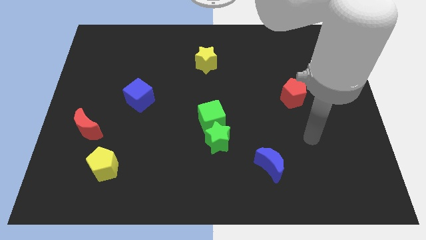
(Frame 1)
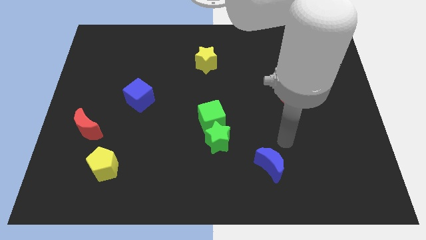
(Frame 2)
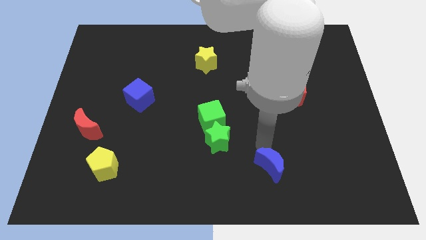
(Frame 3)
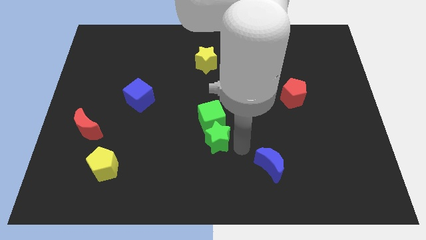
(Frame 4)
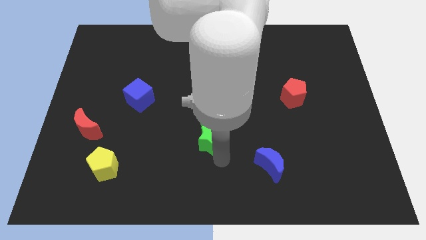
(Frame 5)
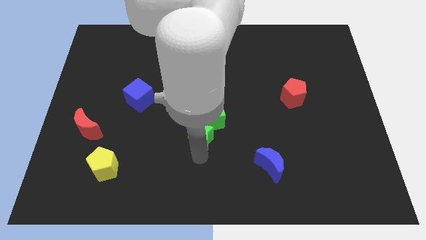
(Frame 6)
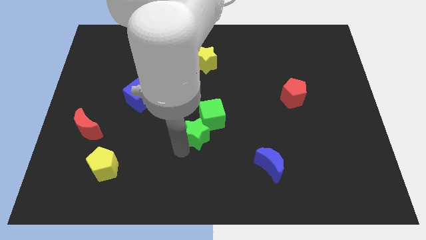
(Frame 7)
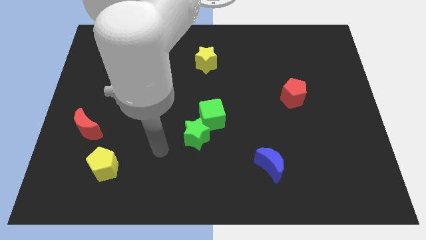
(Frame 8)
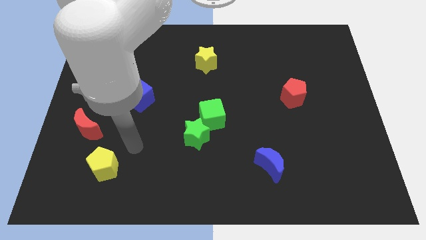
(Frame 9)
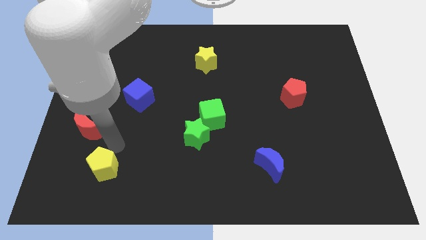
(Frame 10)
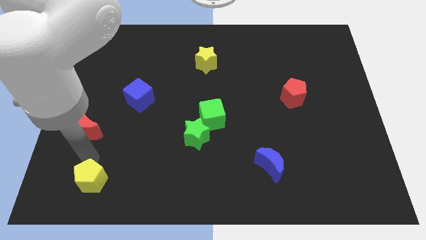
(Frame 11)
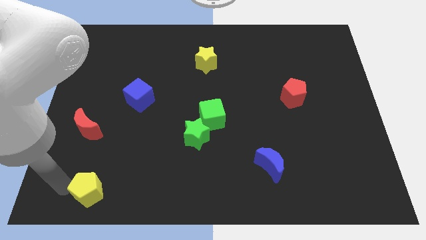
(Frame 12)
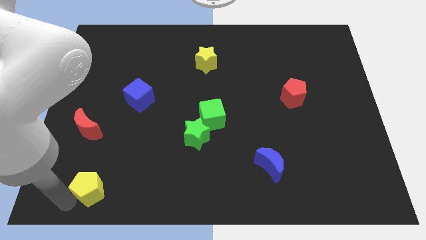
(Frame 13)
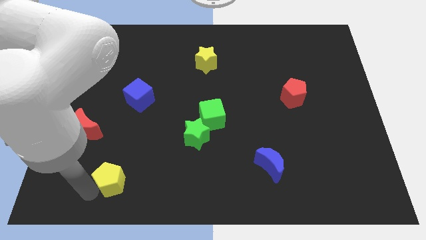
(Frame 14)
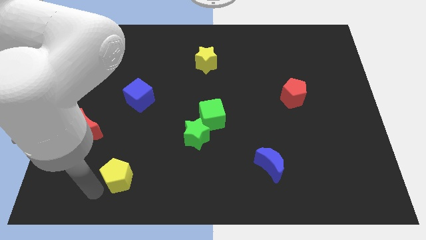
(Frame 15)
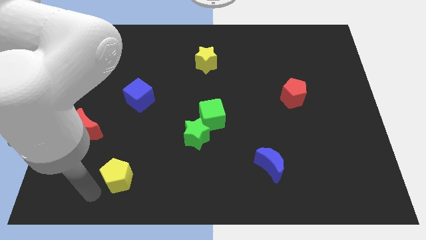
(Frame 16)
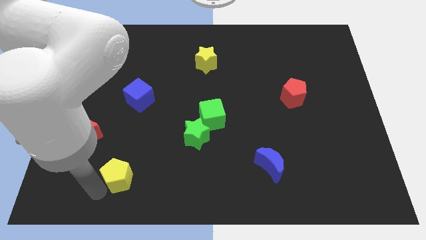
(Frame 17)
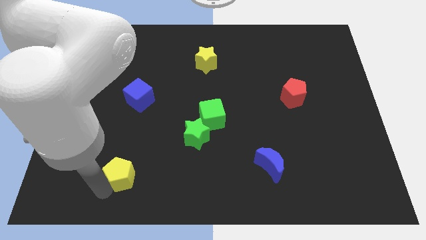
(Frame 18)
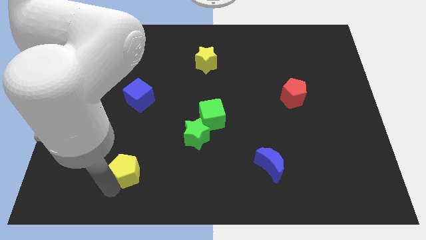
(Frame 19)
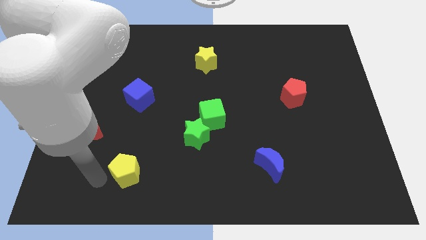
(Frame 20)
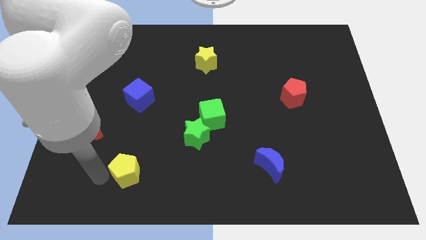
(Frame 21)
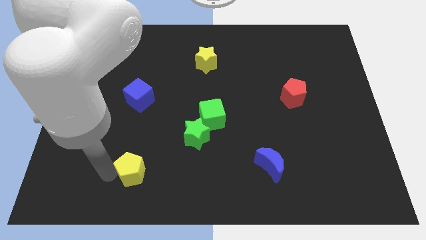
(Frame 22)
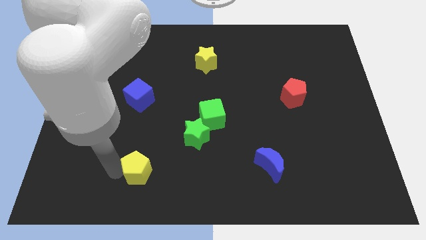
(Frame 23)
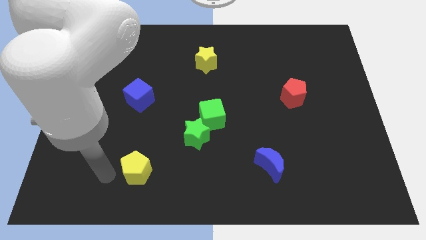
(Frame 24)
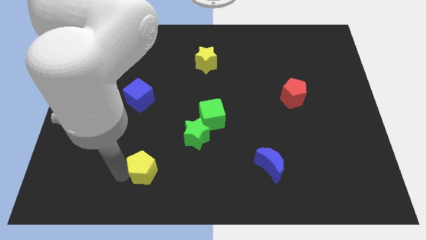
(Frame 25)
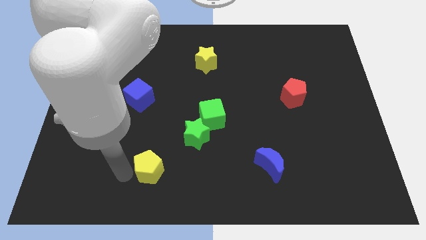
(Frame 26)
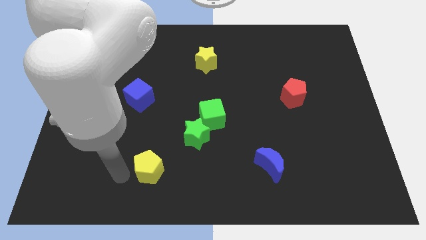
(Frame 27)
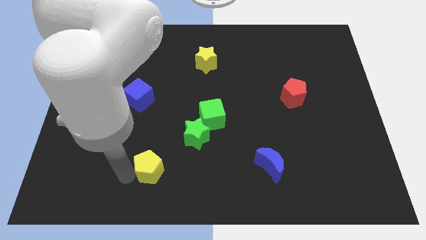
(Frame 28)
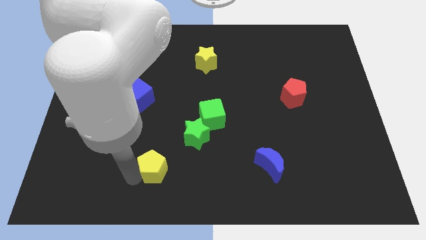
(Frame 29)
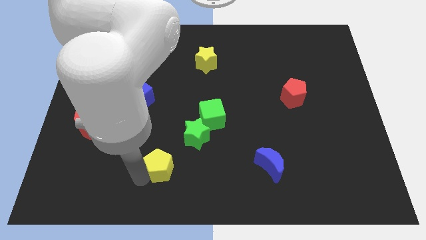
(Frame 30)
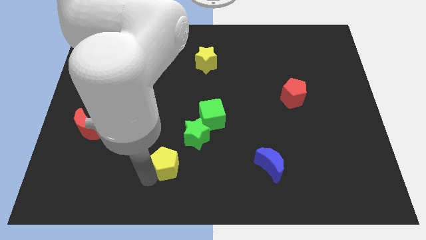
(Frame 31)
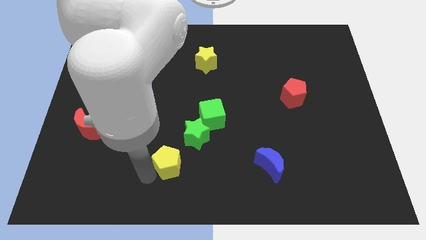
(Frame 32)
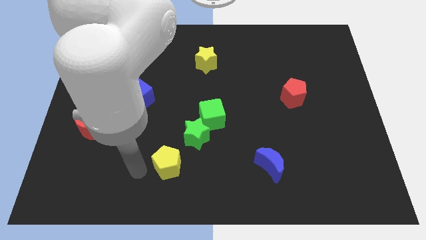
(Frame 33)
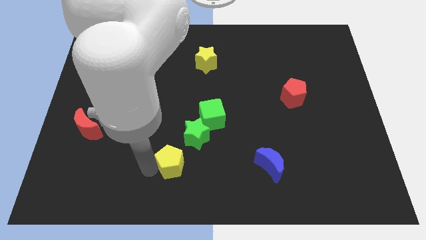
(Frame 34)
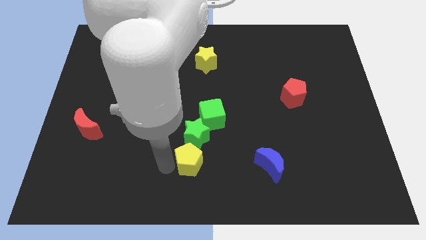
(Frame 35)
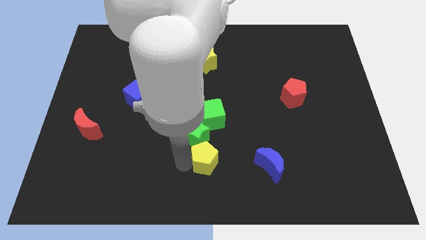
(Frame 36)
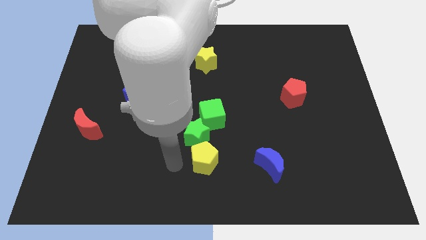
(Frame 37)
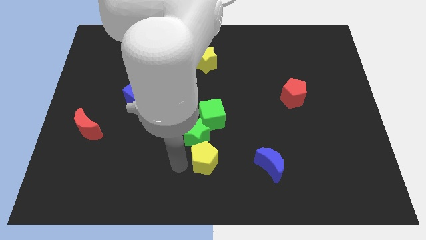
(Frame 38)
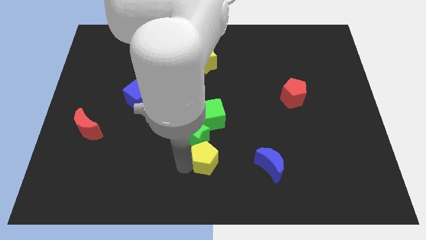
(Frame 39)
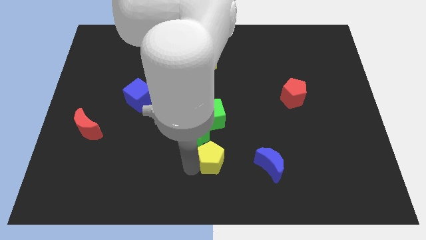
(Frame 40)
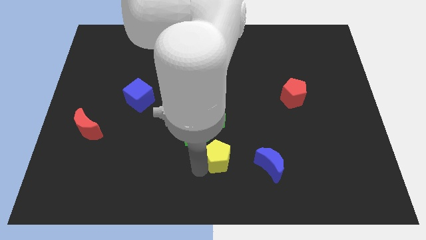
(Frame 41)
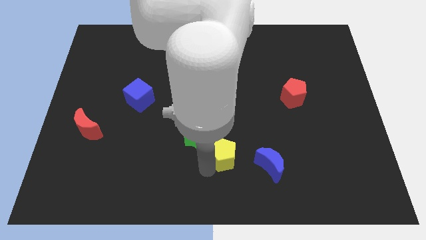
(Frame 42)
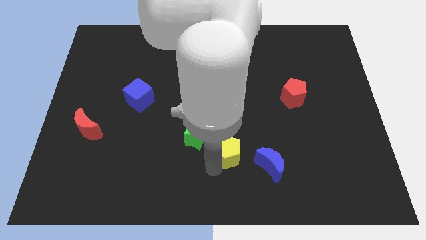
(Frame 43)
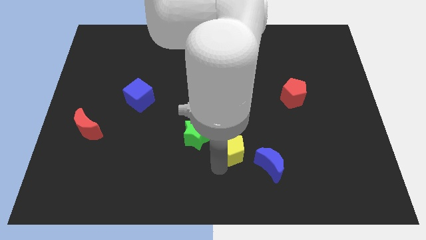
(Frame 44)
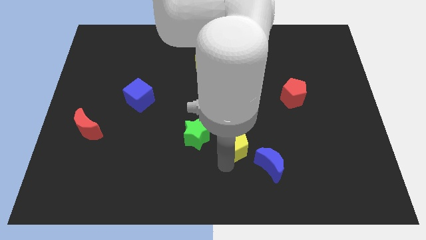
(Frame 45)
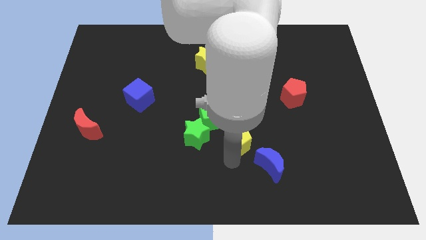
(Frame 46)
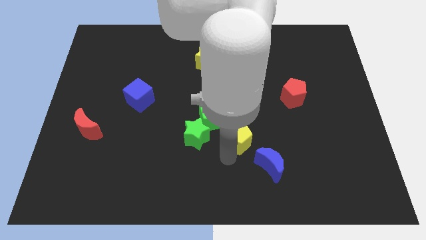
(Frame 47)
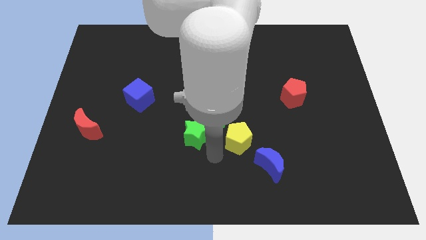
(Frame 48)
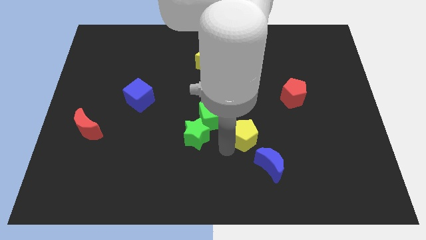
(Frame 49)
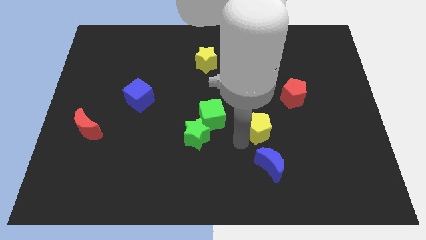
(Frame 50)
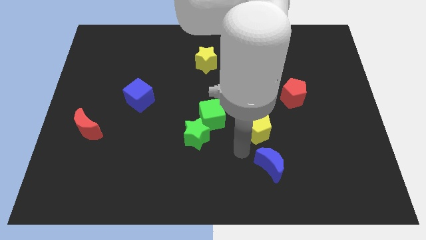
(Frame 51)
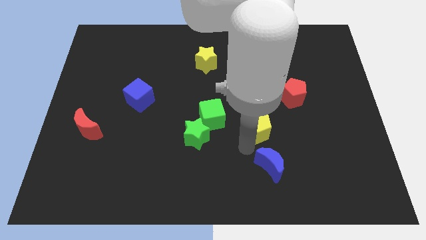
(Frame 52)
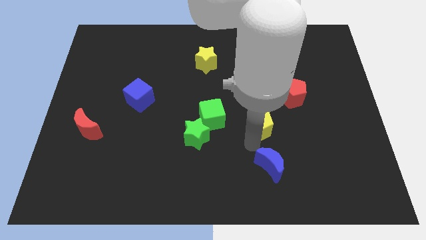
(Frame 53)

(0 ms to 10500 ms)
push the yellow pentagon to the bottom left of the red pentagon

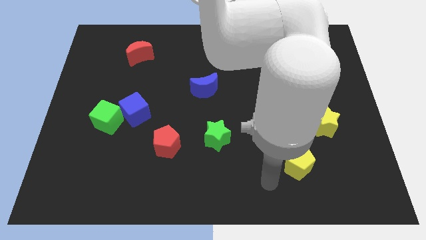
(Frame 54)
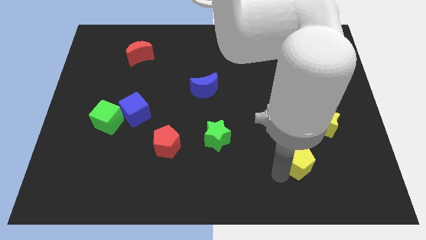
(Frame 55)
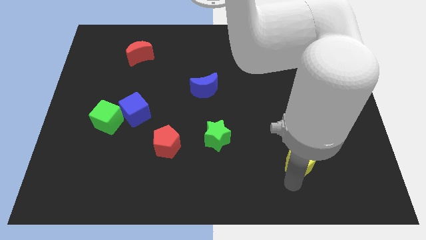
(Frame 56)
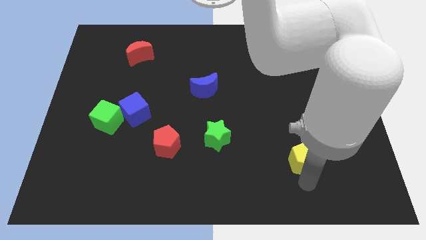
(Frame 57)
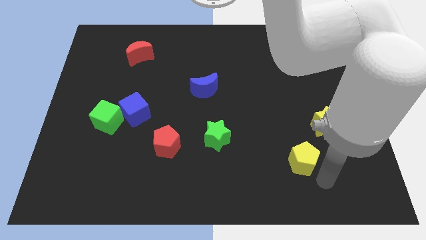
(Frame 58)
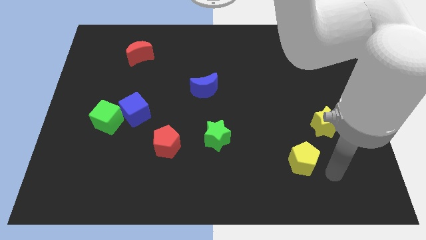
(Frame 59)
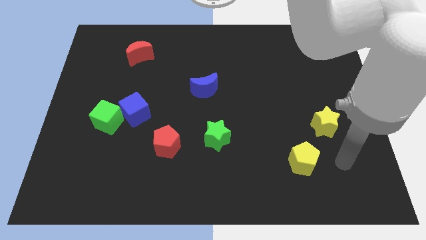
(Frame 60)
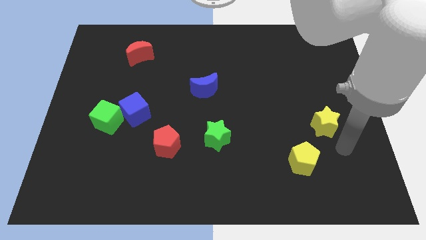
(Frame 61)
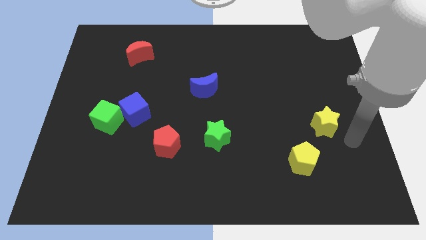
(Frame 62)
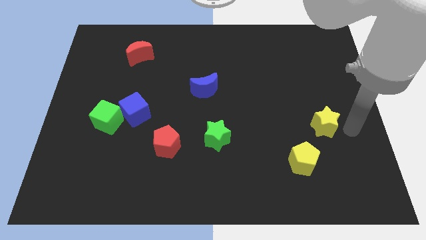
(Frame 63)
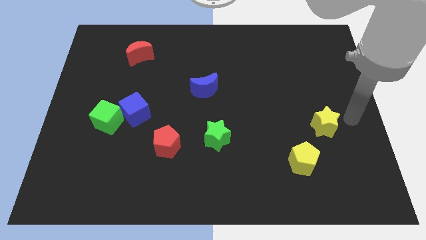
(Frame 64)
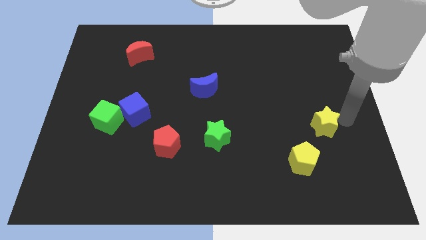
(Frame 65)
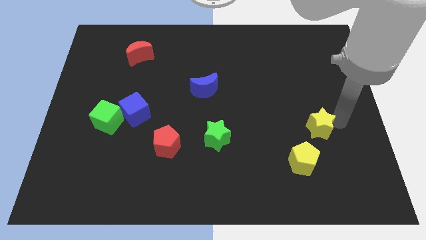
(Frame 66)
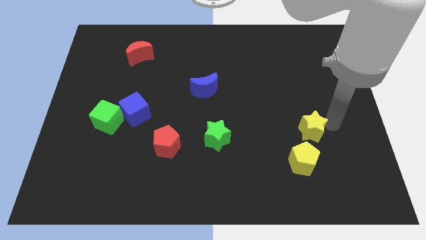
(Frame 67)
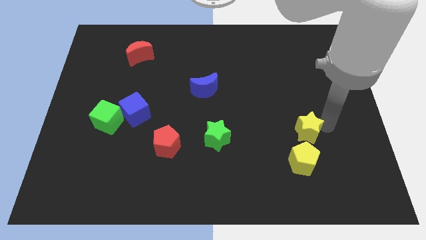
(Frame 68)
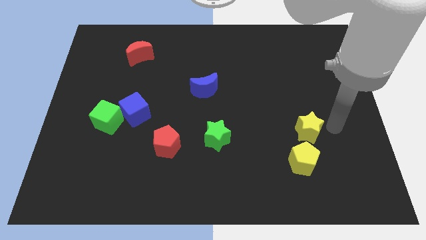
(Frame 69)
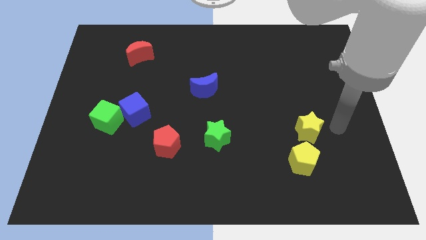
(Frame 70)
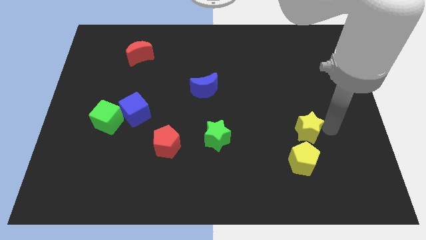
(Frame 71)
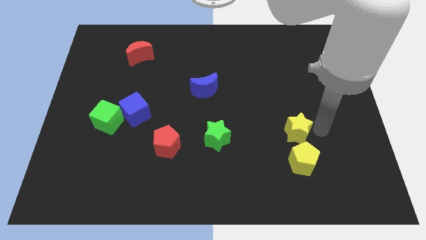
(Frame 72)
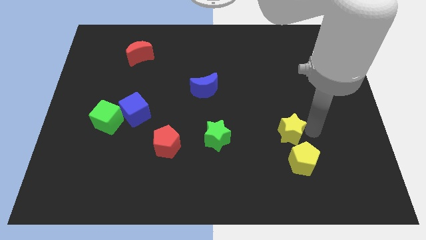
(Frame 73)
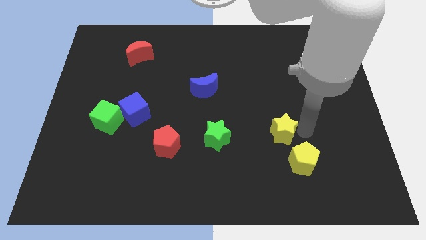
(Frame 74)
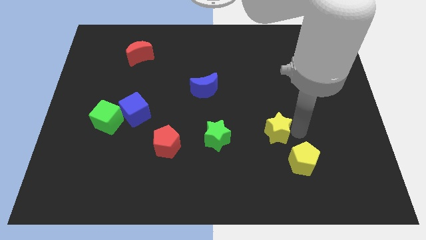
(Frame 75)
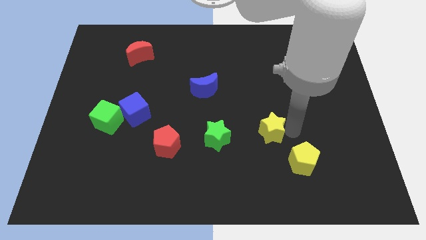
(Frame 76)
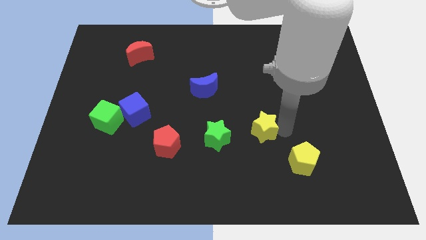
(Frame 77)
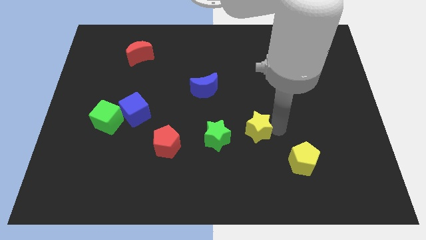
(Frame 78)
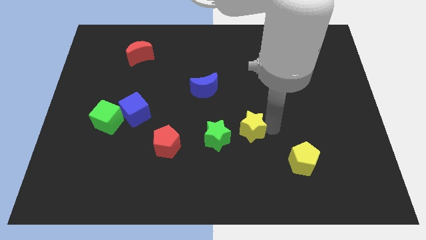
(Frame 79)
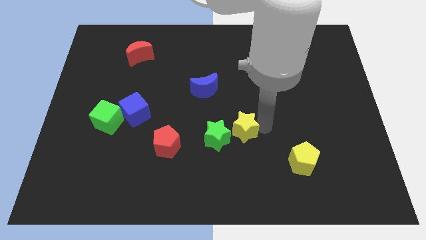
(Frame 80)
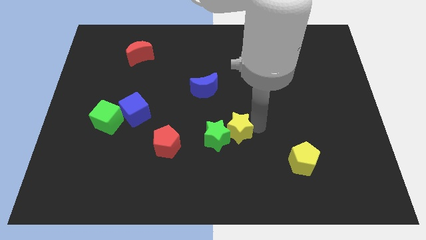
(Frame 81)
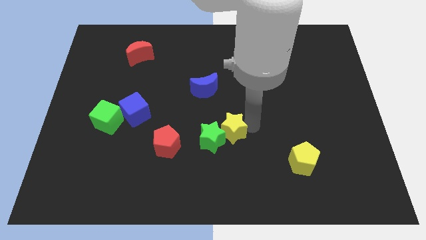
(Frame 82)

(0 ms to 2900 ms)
slide the yellow star to the right side of the red pentagon
